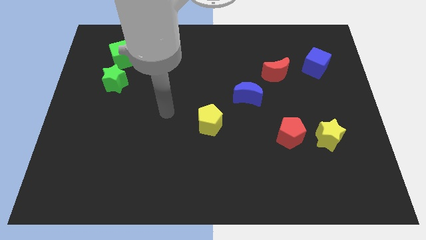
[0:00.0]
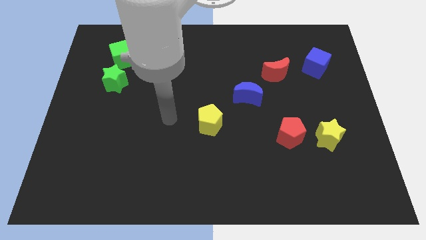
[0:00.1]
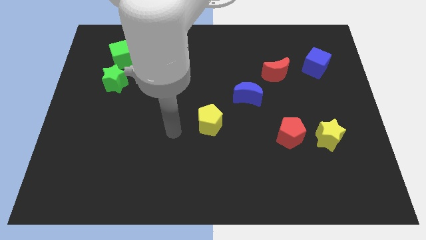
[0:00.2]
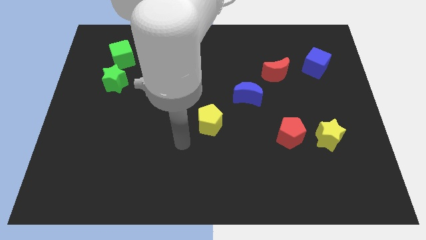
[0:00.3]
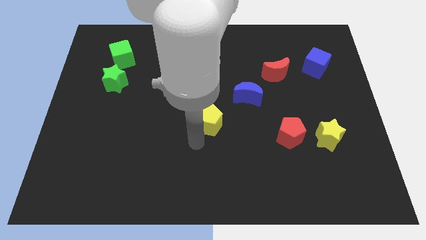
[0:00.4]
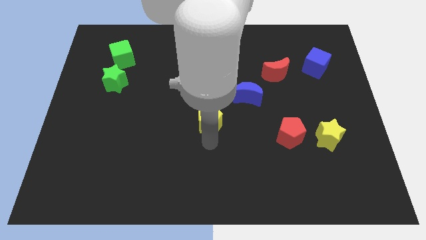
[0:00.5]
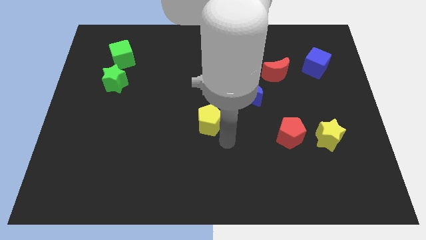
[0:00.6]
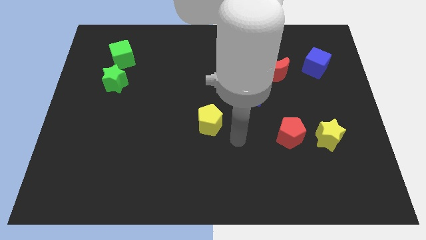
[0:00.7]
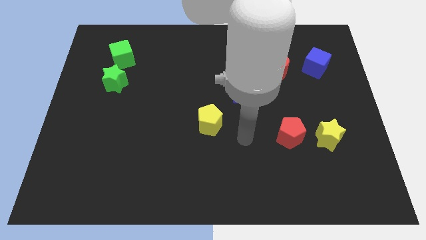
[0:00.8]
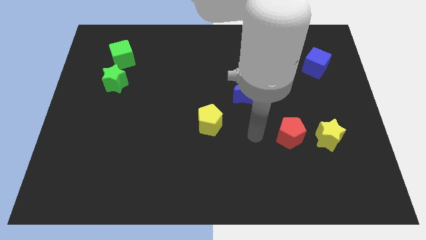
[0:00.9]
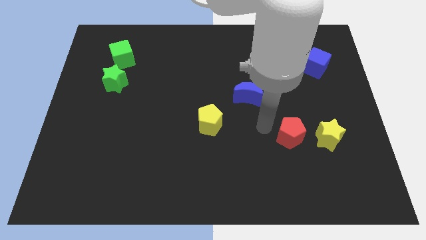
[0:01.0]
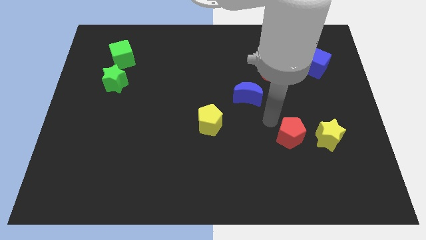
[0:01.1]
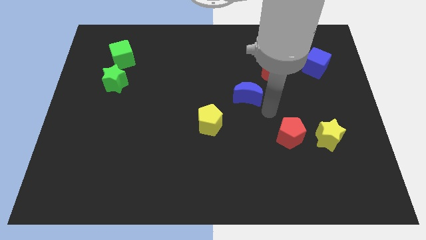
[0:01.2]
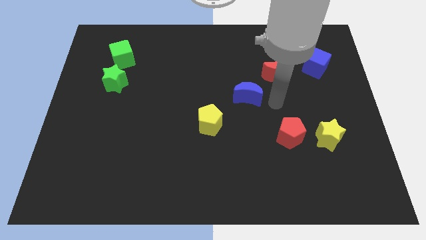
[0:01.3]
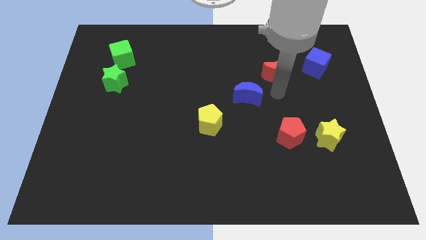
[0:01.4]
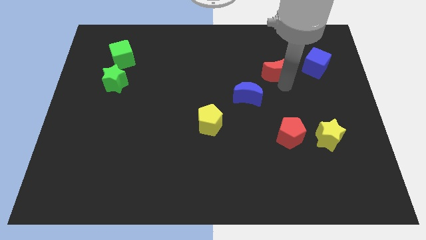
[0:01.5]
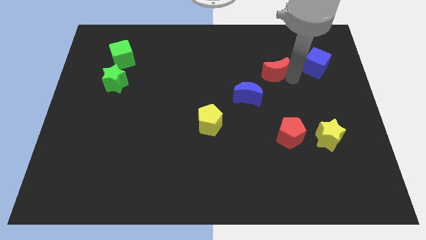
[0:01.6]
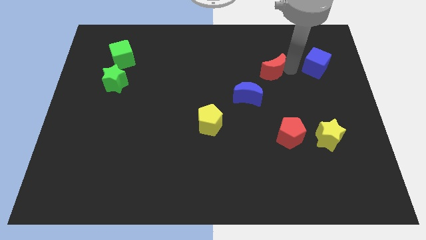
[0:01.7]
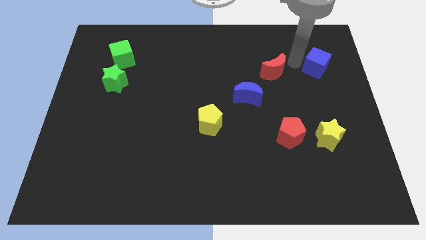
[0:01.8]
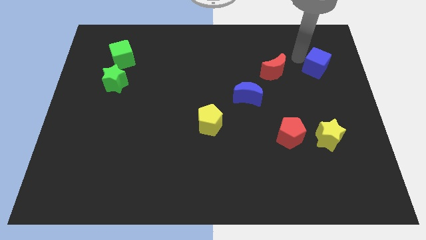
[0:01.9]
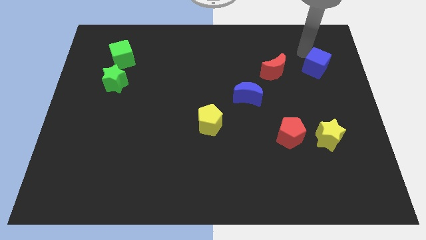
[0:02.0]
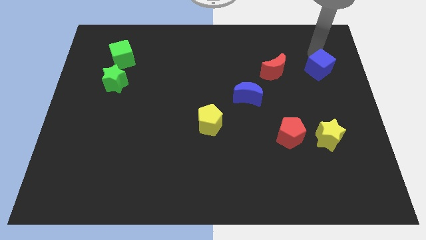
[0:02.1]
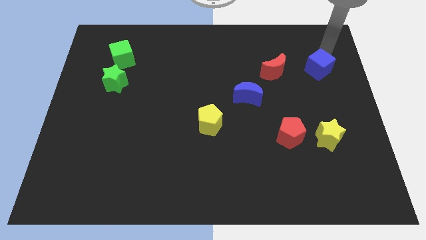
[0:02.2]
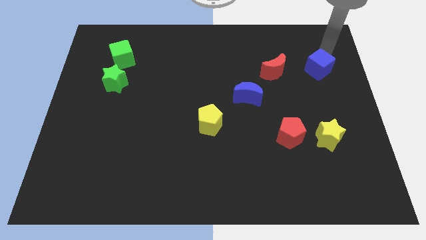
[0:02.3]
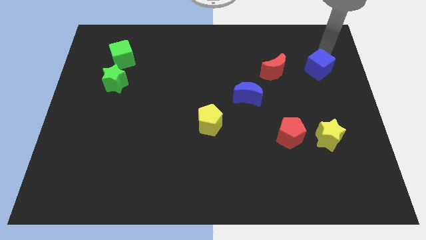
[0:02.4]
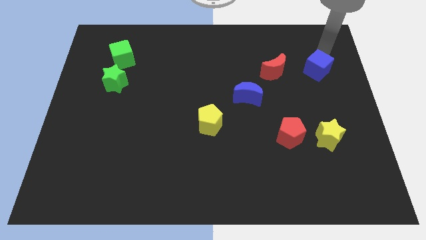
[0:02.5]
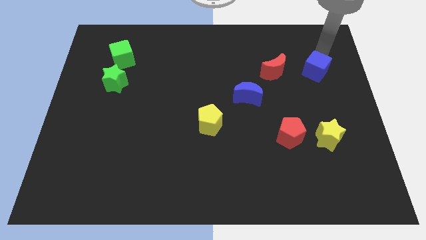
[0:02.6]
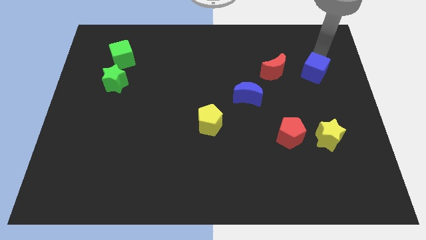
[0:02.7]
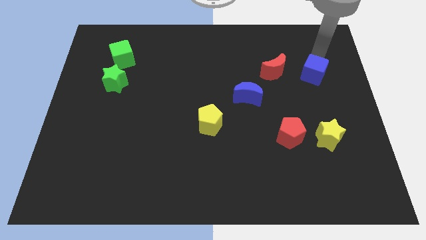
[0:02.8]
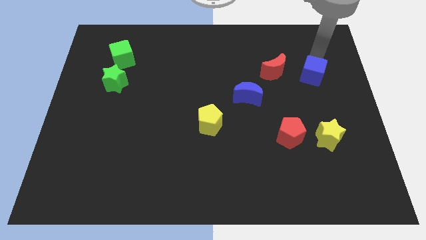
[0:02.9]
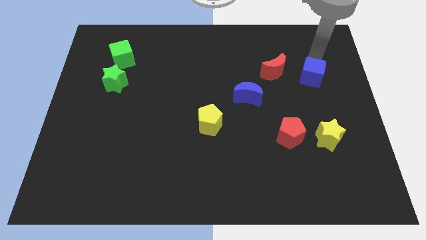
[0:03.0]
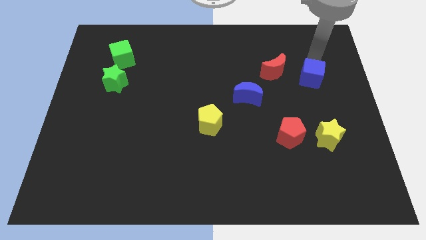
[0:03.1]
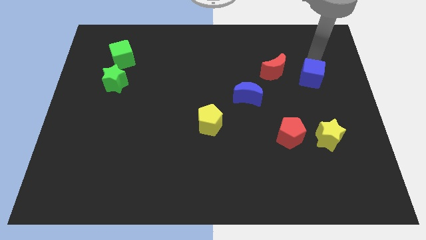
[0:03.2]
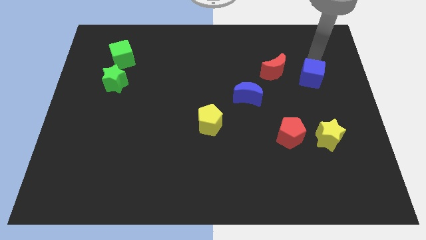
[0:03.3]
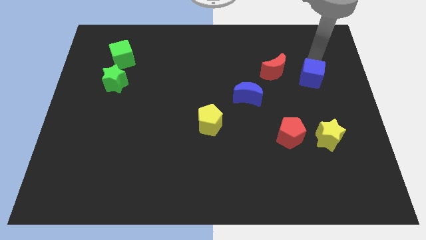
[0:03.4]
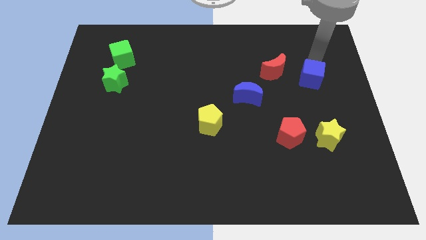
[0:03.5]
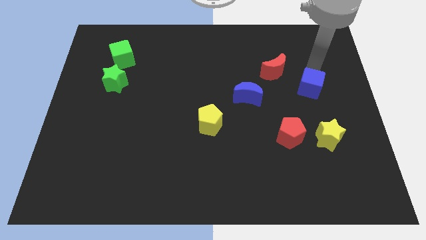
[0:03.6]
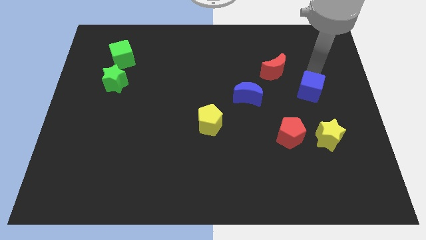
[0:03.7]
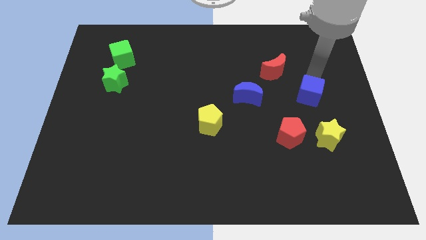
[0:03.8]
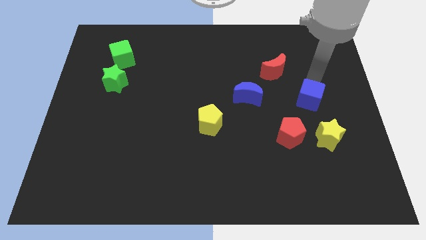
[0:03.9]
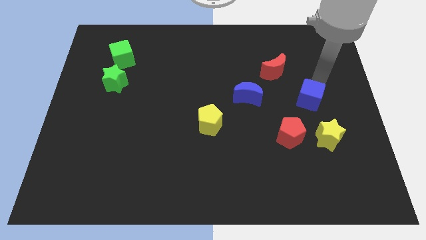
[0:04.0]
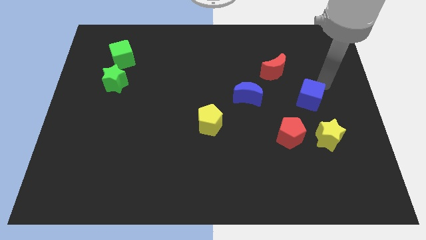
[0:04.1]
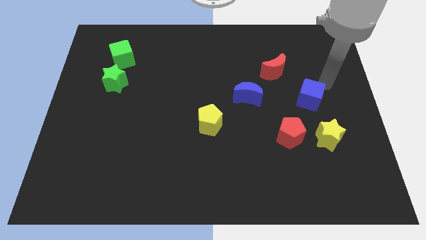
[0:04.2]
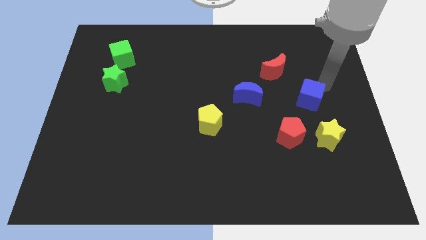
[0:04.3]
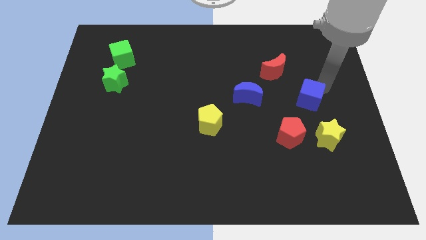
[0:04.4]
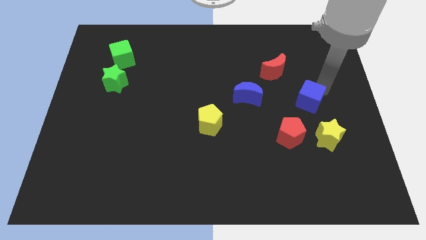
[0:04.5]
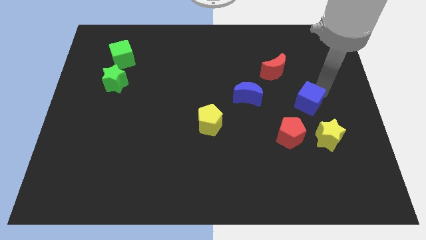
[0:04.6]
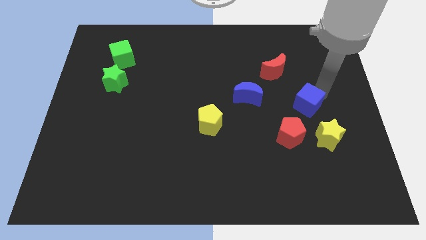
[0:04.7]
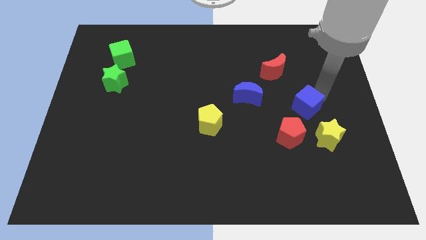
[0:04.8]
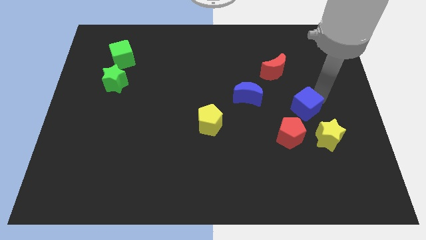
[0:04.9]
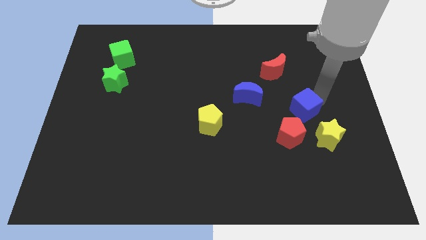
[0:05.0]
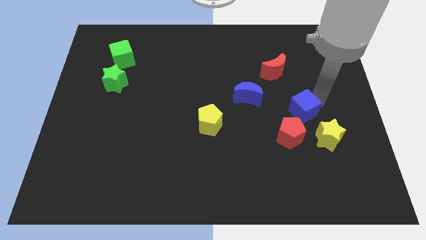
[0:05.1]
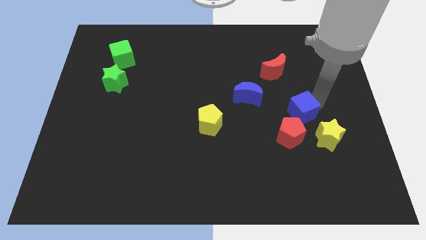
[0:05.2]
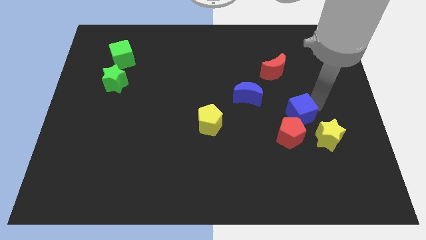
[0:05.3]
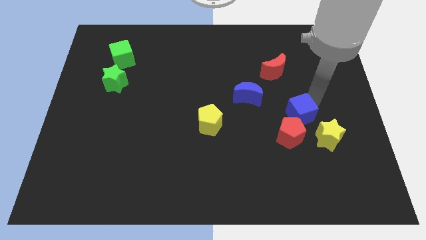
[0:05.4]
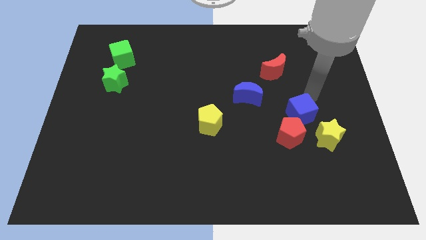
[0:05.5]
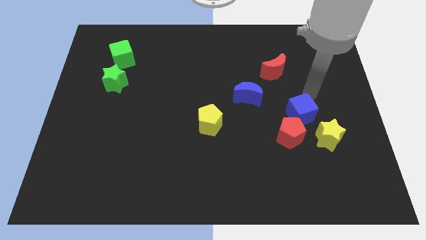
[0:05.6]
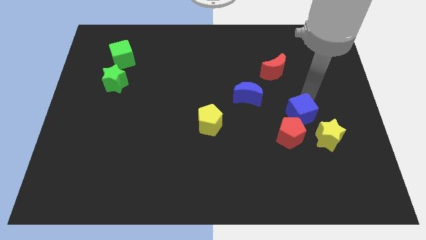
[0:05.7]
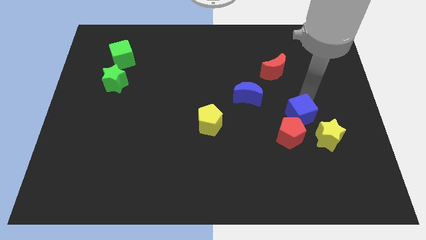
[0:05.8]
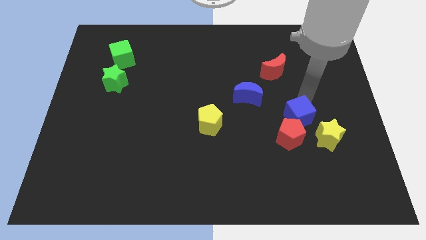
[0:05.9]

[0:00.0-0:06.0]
put the blue cube towards the red pentagon

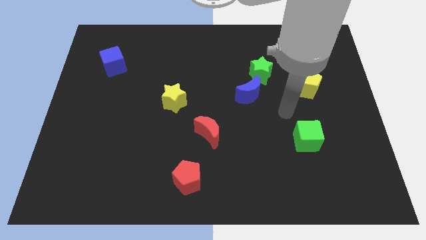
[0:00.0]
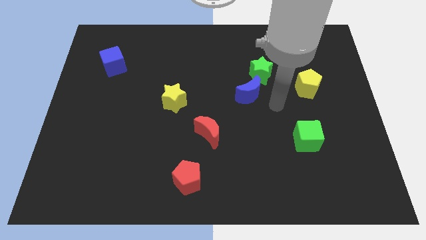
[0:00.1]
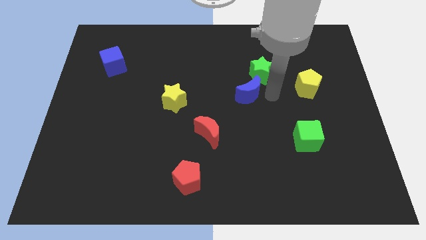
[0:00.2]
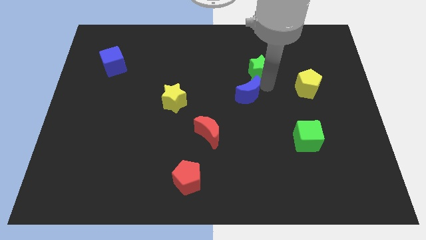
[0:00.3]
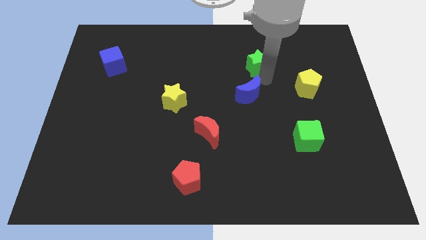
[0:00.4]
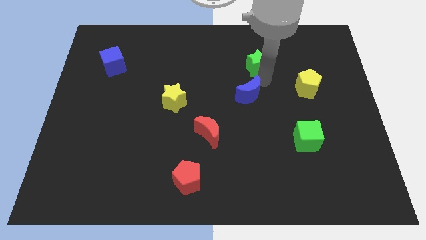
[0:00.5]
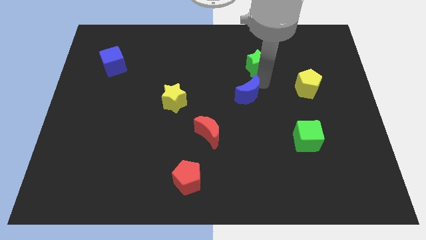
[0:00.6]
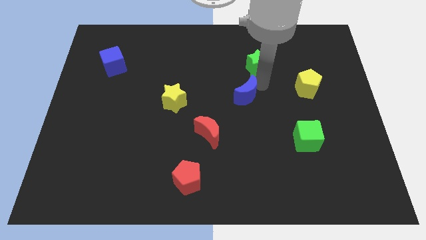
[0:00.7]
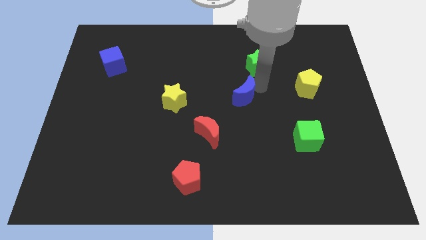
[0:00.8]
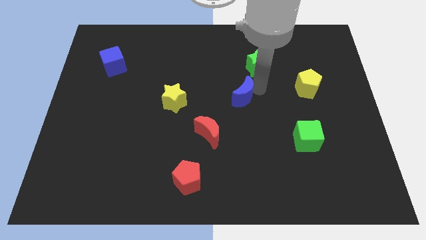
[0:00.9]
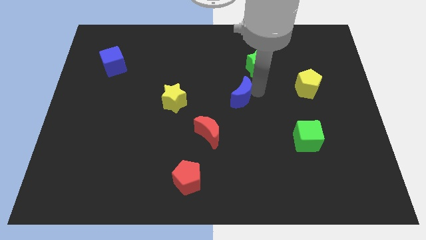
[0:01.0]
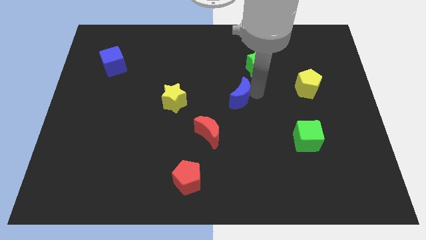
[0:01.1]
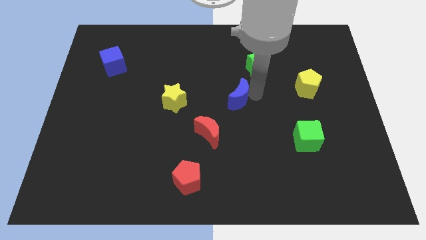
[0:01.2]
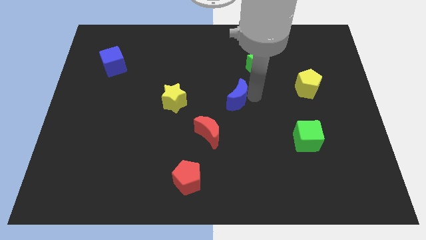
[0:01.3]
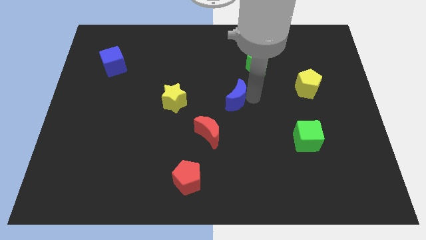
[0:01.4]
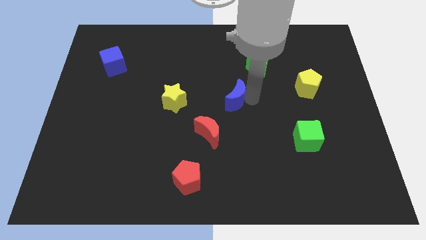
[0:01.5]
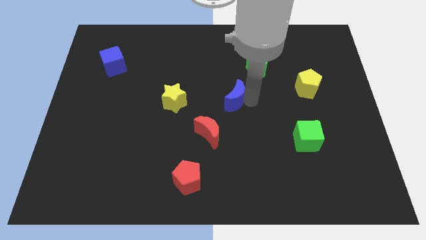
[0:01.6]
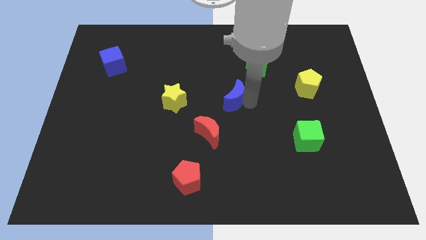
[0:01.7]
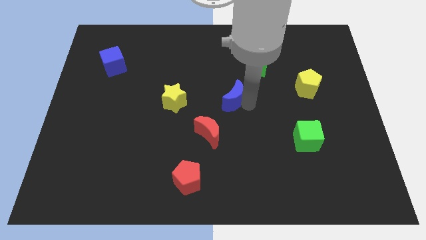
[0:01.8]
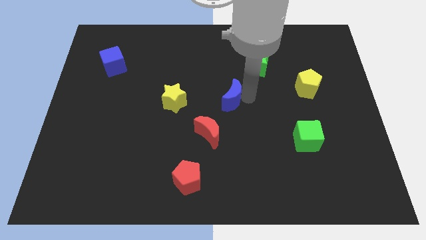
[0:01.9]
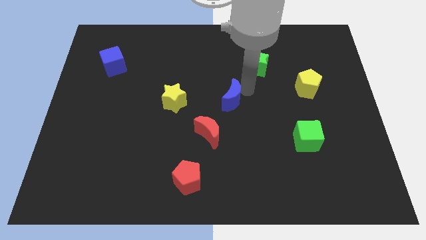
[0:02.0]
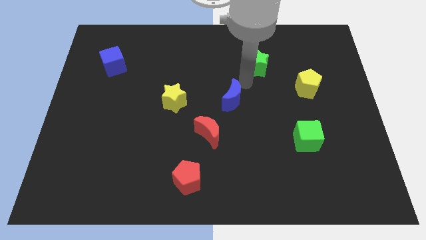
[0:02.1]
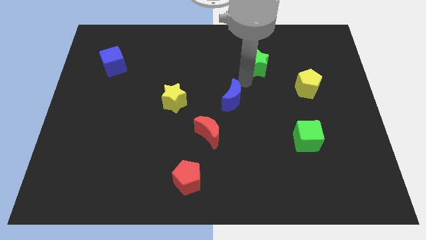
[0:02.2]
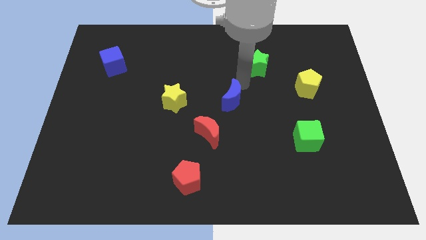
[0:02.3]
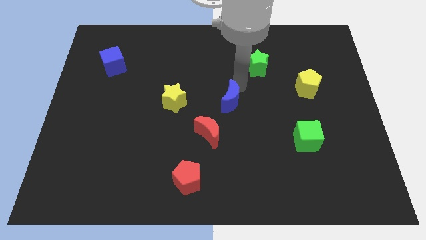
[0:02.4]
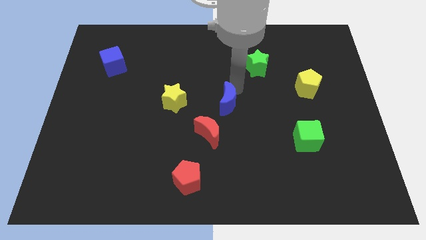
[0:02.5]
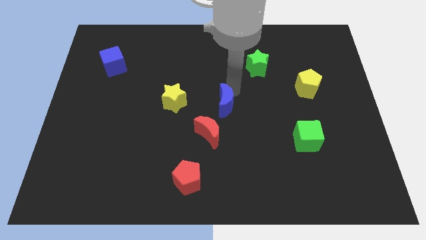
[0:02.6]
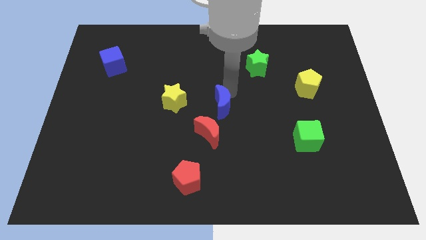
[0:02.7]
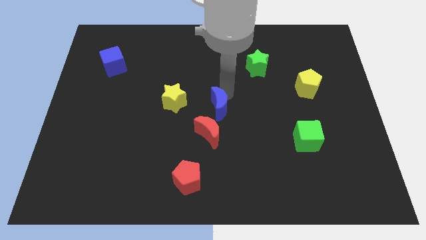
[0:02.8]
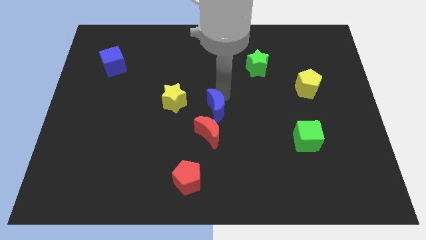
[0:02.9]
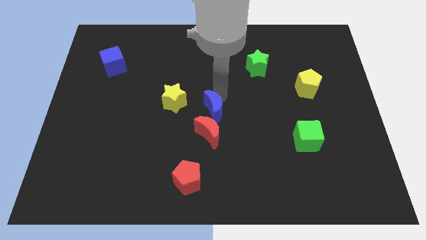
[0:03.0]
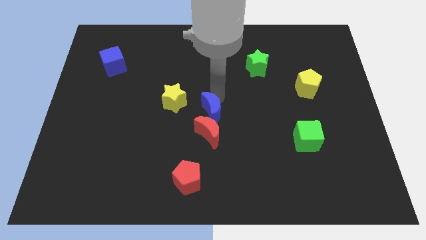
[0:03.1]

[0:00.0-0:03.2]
put the blue moon to the red moon
